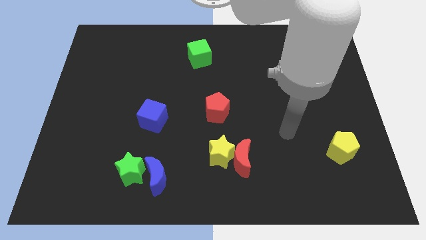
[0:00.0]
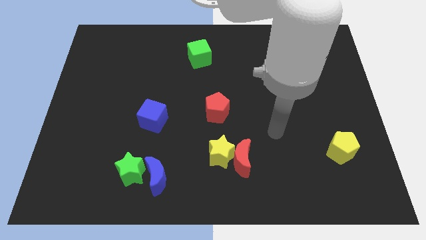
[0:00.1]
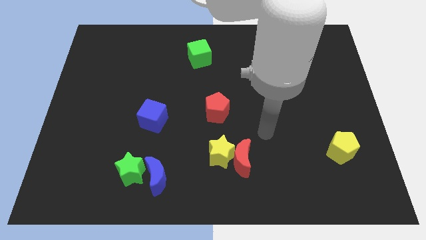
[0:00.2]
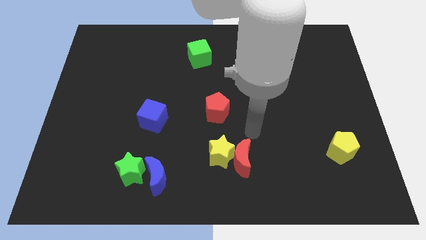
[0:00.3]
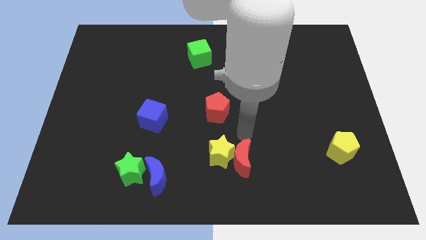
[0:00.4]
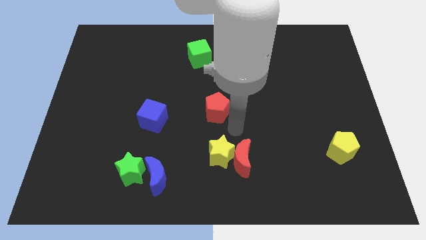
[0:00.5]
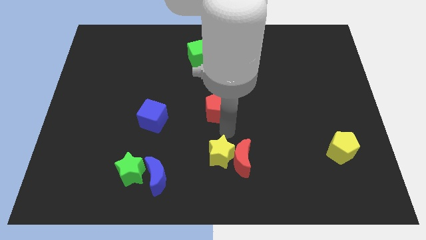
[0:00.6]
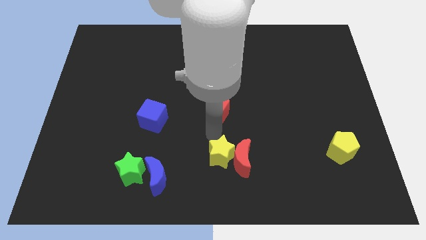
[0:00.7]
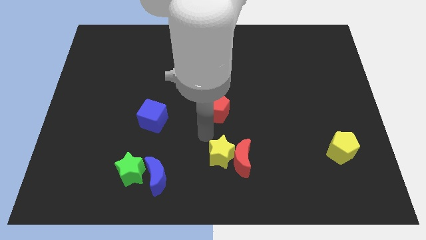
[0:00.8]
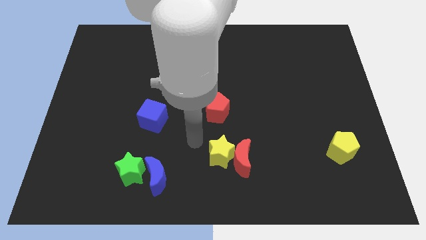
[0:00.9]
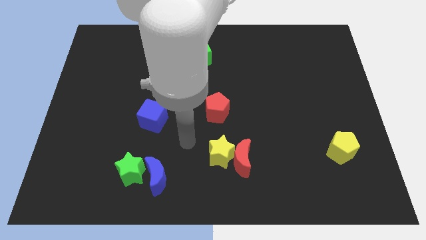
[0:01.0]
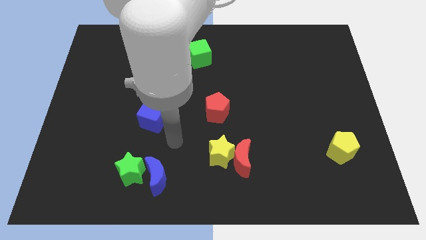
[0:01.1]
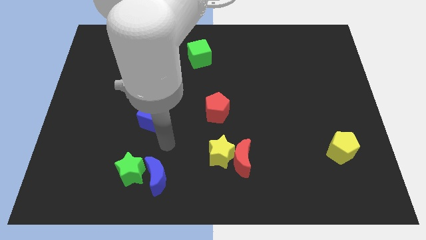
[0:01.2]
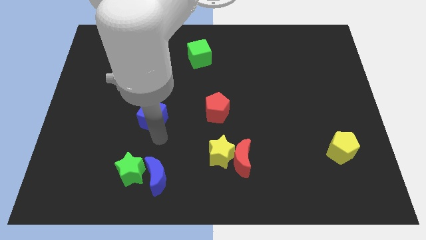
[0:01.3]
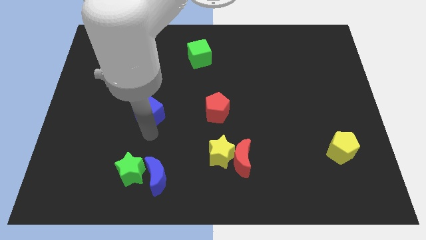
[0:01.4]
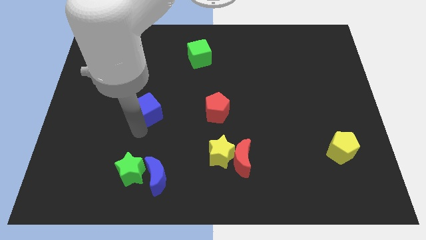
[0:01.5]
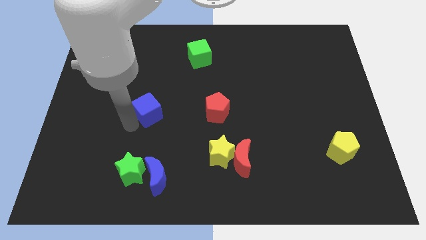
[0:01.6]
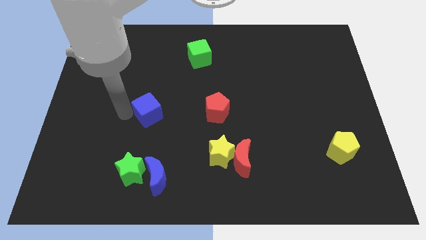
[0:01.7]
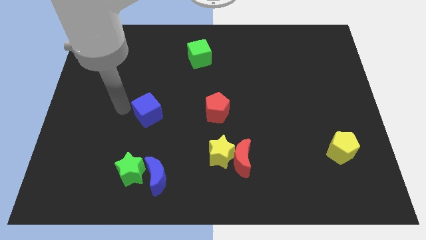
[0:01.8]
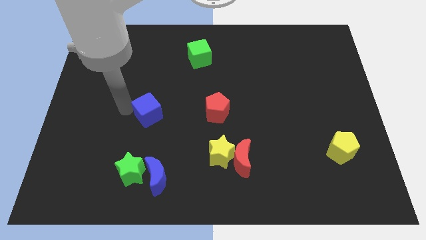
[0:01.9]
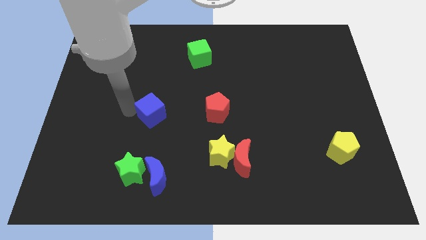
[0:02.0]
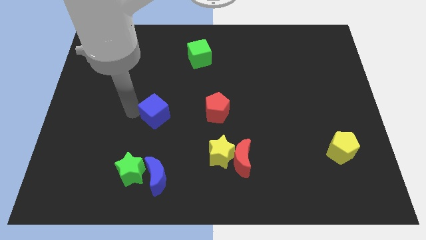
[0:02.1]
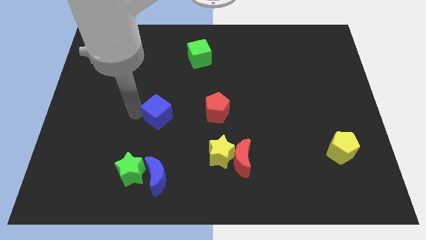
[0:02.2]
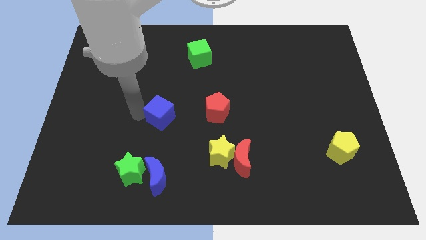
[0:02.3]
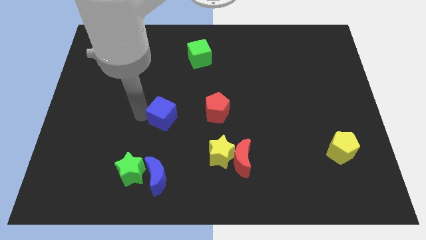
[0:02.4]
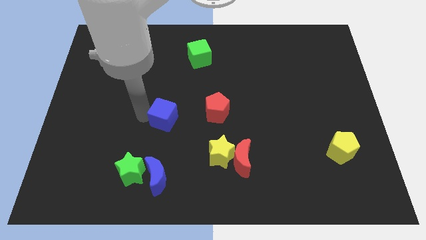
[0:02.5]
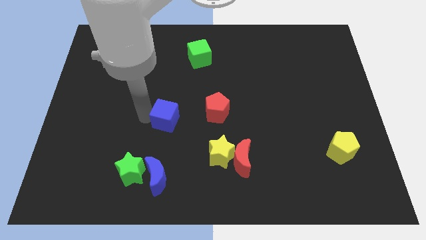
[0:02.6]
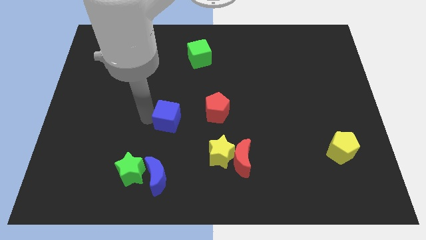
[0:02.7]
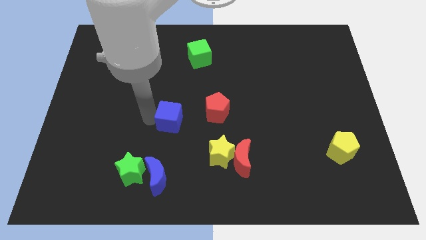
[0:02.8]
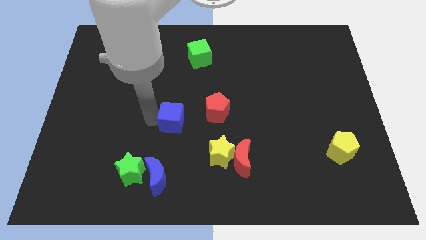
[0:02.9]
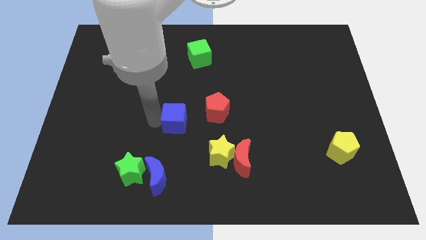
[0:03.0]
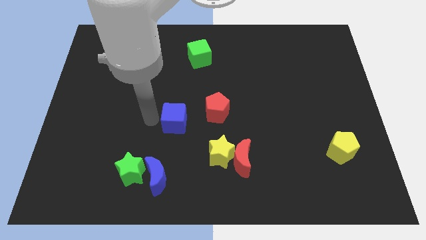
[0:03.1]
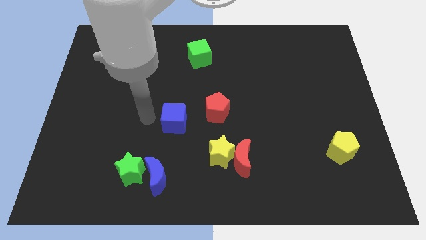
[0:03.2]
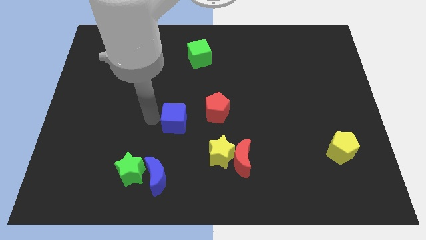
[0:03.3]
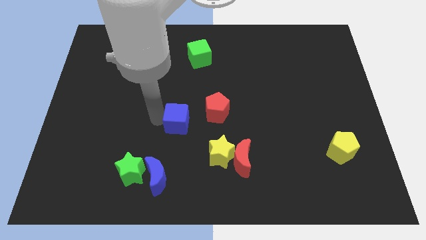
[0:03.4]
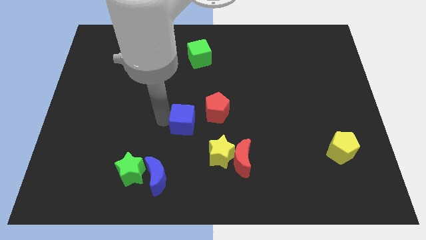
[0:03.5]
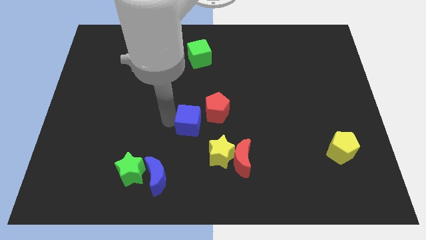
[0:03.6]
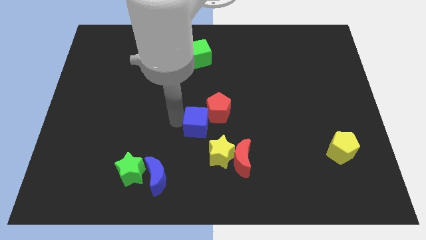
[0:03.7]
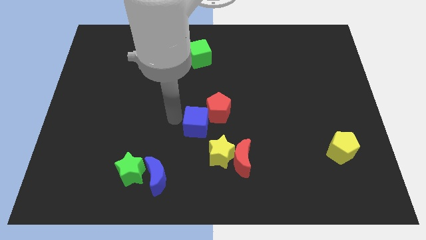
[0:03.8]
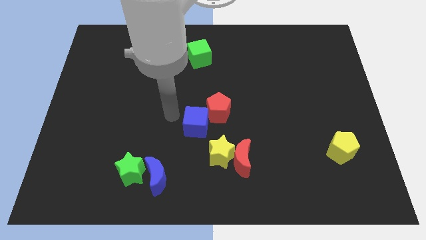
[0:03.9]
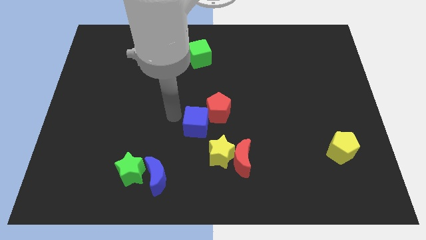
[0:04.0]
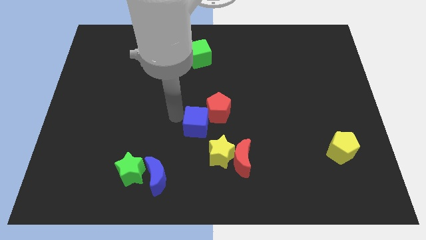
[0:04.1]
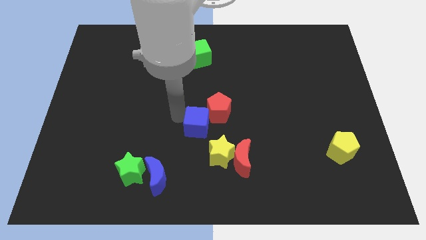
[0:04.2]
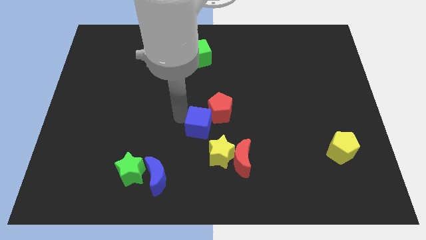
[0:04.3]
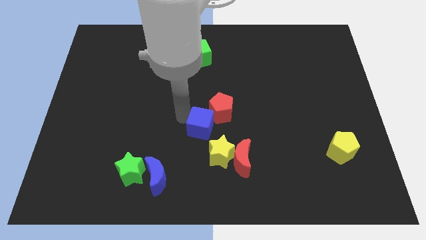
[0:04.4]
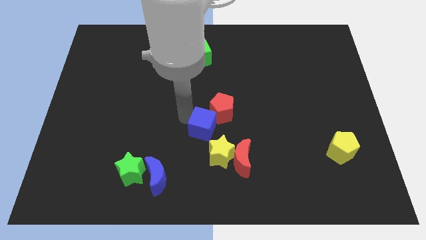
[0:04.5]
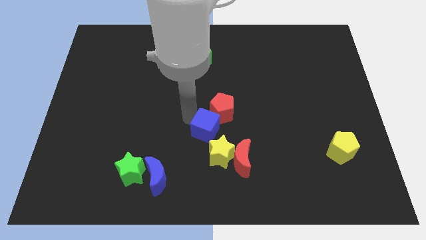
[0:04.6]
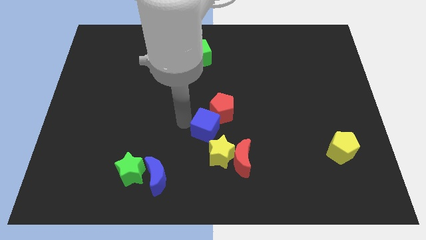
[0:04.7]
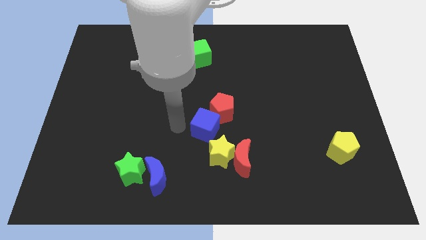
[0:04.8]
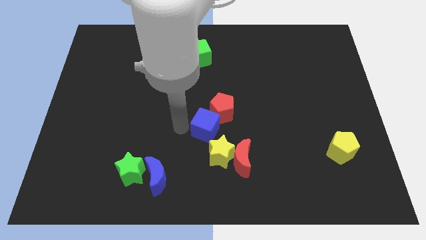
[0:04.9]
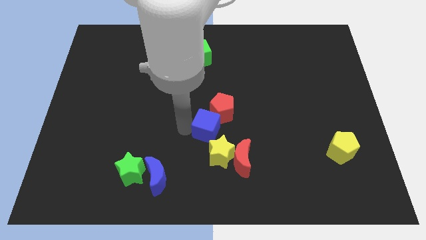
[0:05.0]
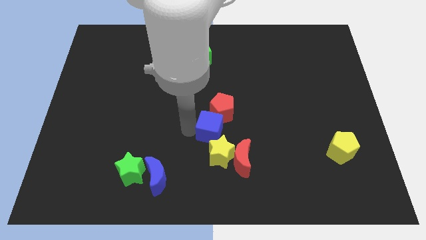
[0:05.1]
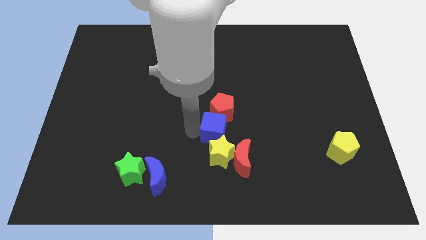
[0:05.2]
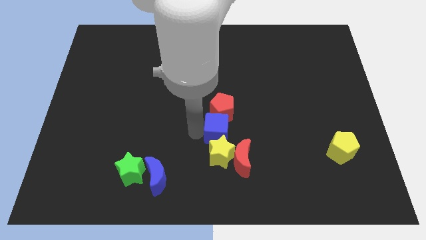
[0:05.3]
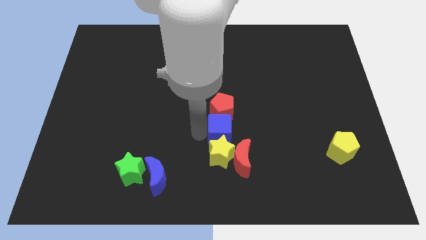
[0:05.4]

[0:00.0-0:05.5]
move the blue cube to the bottom right side of the red pentagon

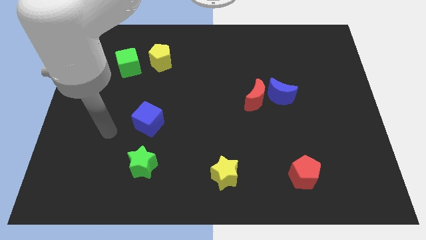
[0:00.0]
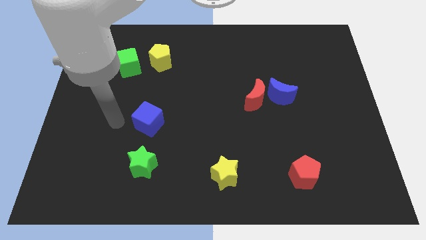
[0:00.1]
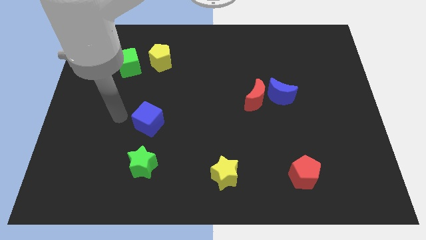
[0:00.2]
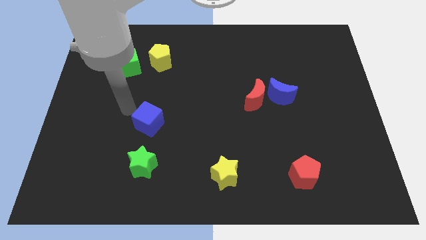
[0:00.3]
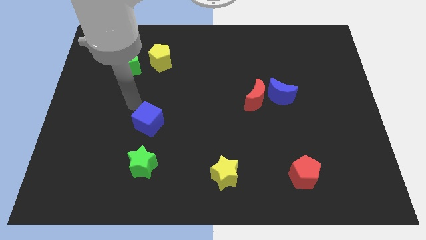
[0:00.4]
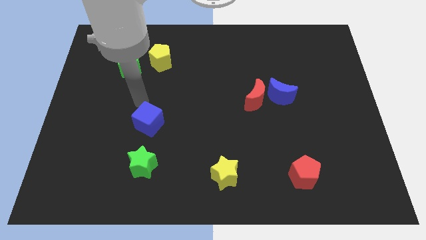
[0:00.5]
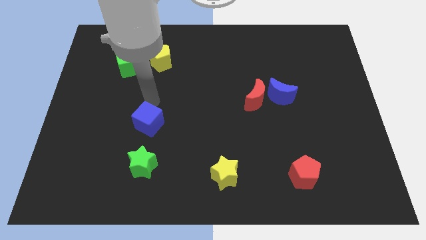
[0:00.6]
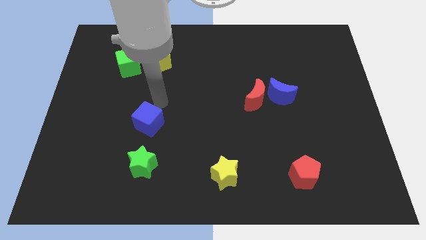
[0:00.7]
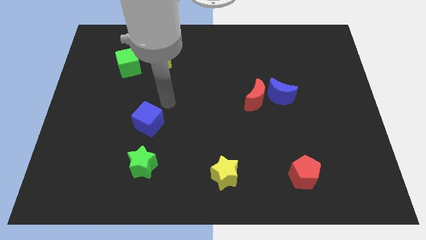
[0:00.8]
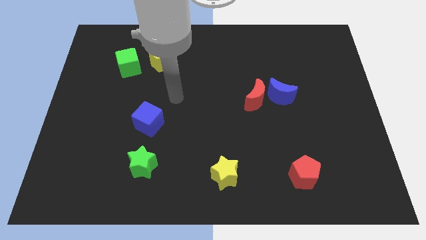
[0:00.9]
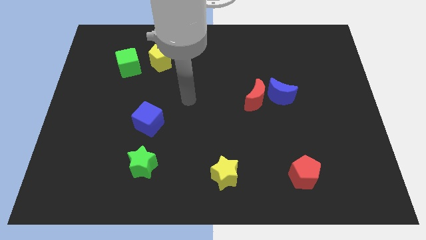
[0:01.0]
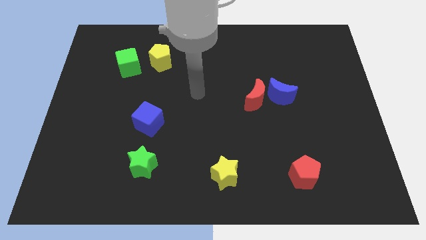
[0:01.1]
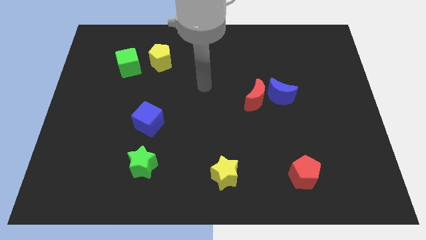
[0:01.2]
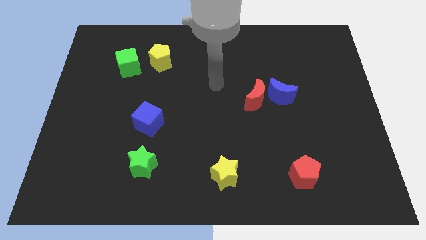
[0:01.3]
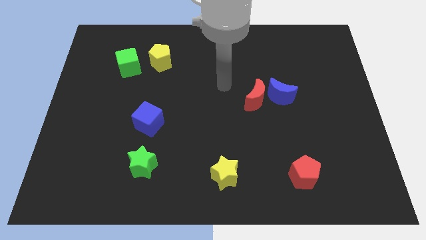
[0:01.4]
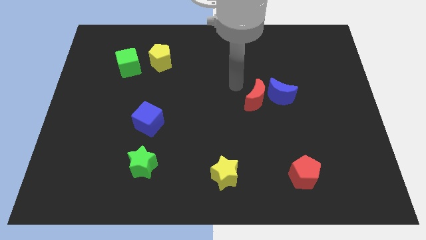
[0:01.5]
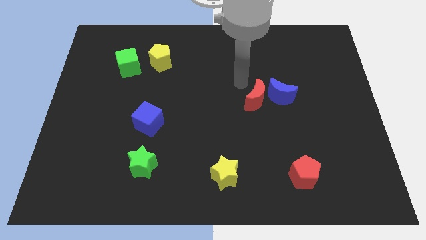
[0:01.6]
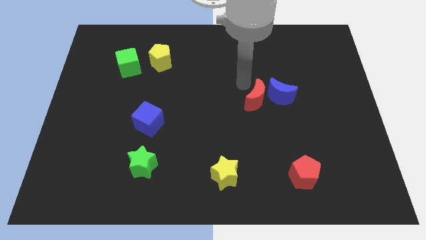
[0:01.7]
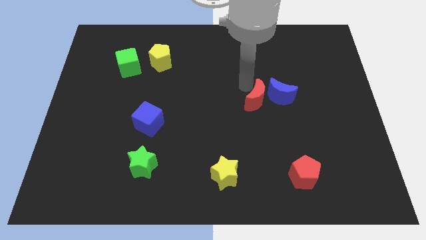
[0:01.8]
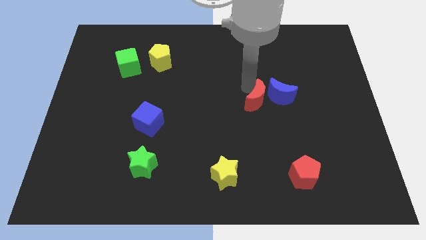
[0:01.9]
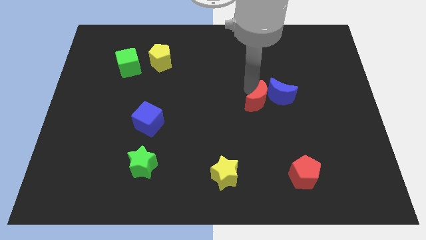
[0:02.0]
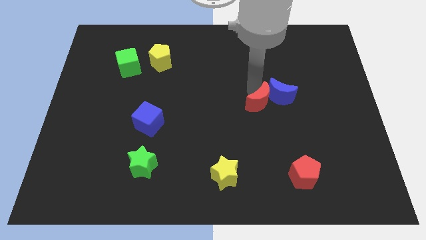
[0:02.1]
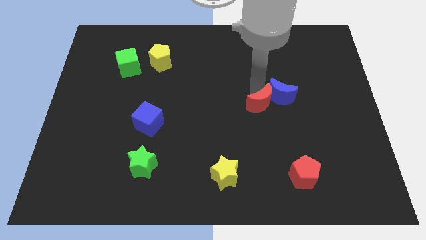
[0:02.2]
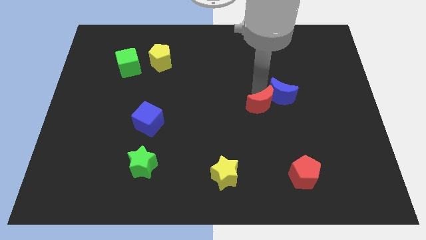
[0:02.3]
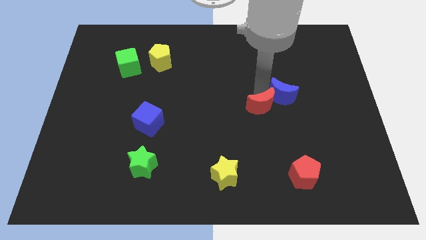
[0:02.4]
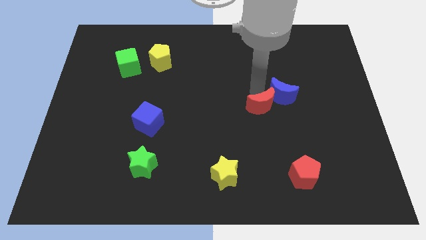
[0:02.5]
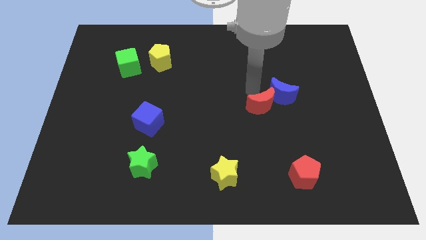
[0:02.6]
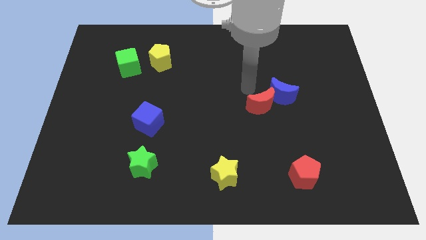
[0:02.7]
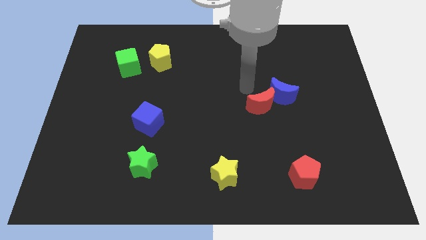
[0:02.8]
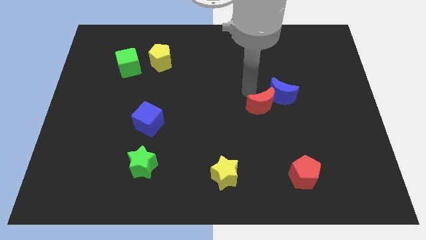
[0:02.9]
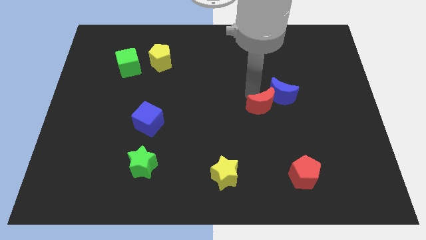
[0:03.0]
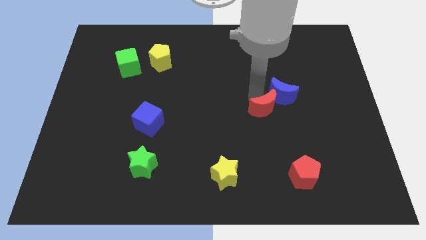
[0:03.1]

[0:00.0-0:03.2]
slide the red moon to the bottom side of the blue moon
